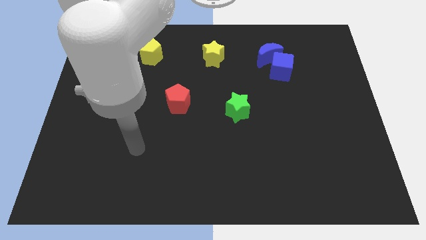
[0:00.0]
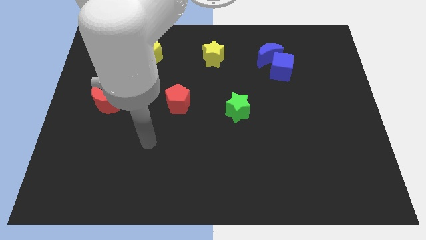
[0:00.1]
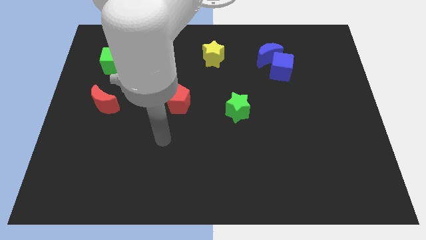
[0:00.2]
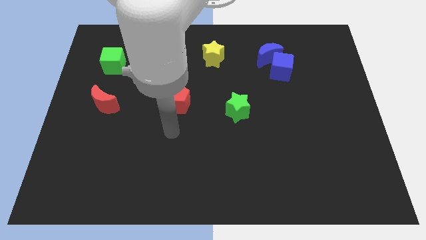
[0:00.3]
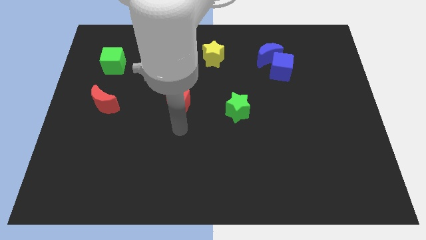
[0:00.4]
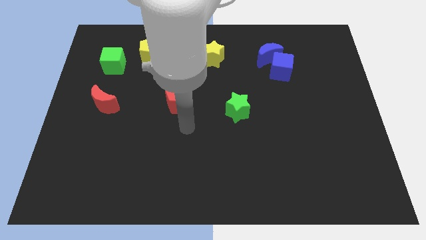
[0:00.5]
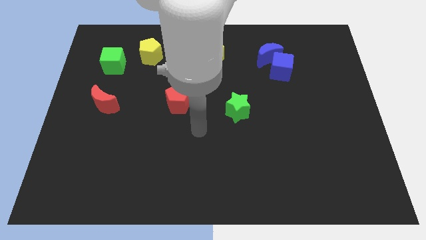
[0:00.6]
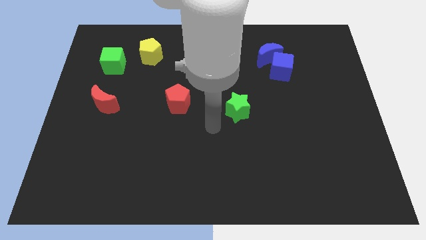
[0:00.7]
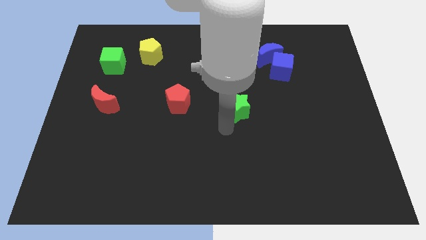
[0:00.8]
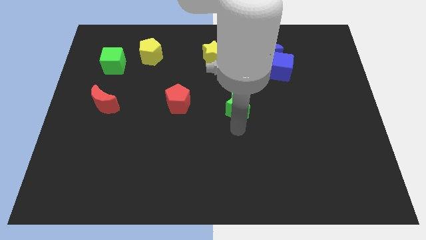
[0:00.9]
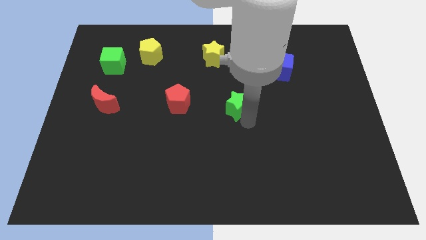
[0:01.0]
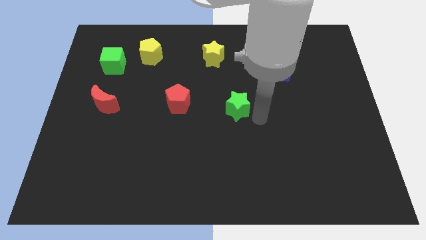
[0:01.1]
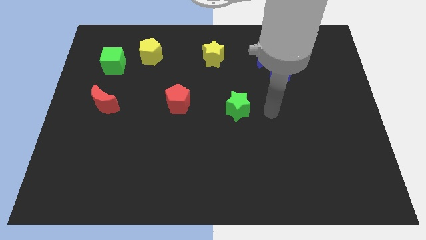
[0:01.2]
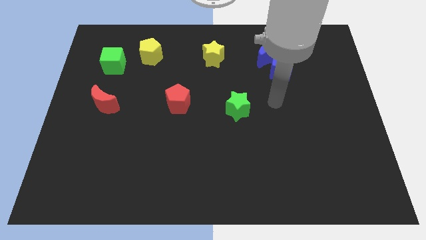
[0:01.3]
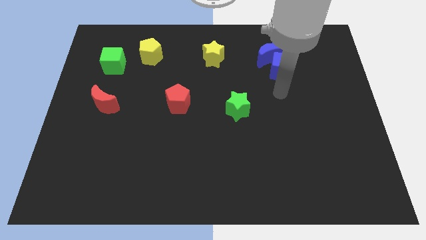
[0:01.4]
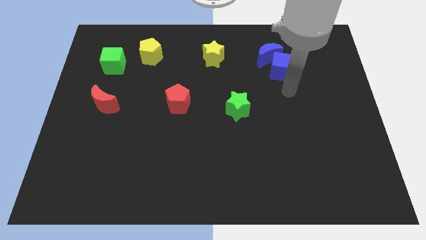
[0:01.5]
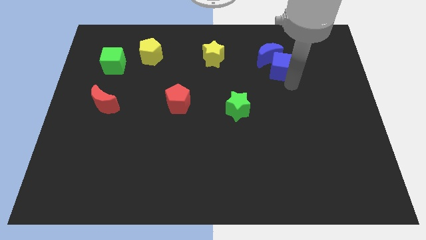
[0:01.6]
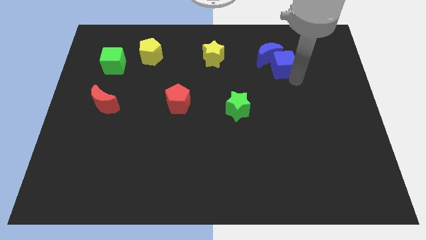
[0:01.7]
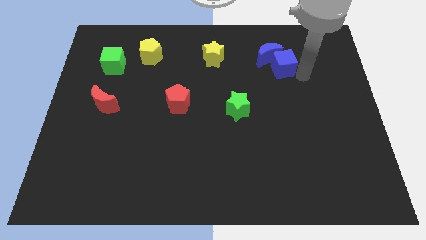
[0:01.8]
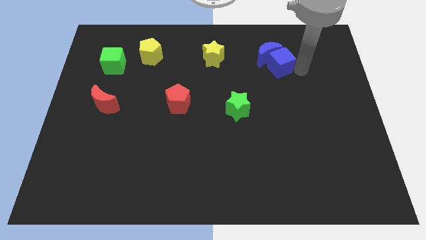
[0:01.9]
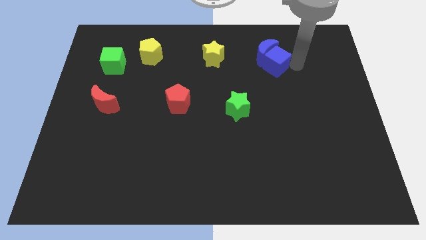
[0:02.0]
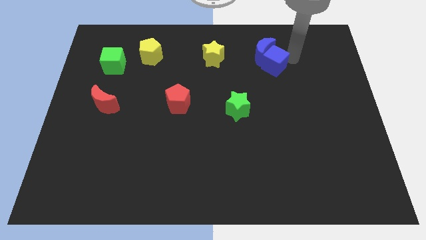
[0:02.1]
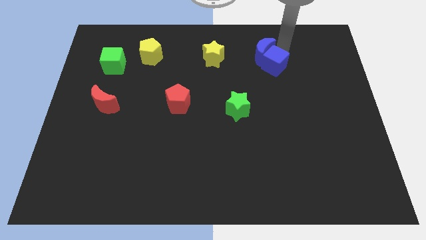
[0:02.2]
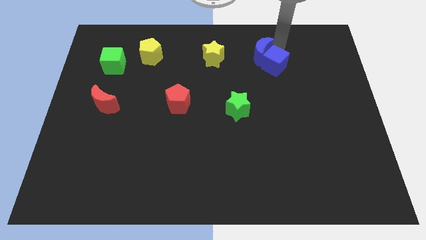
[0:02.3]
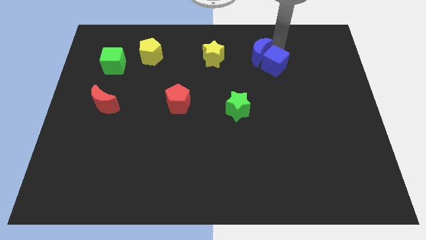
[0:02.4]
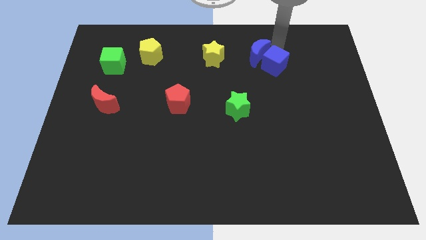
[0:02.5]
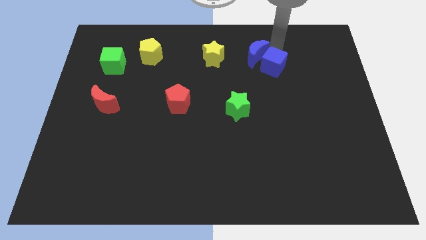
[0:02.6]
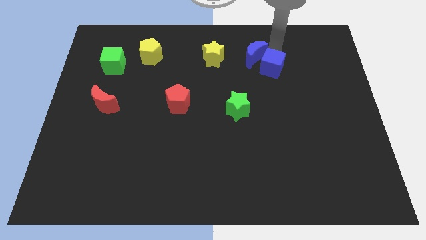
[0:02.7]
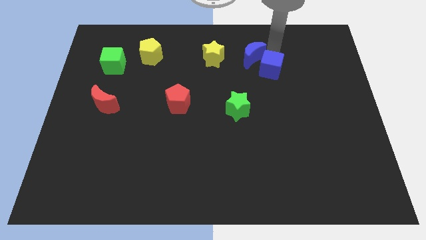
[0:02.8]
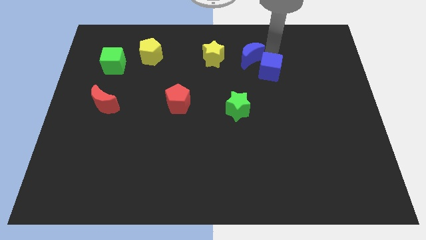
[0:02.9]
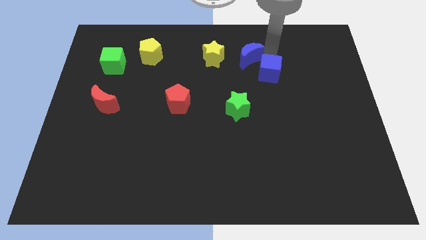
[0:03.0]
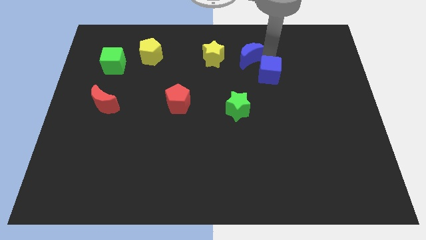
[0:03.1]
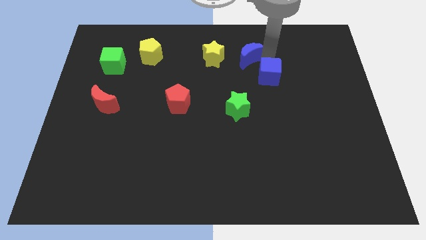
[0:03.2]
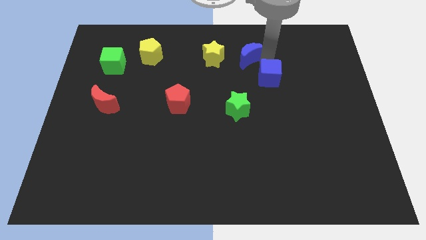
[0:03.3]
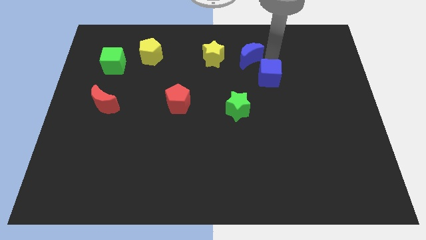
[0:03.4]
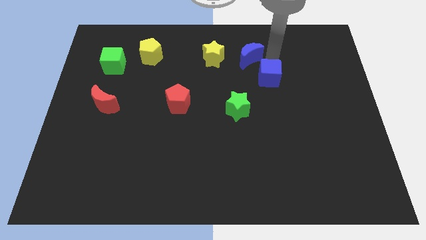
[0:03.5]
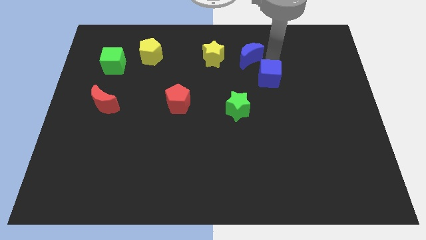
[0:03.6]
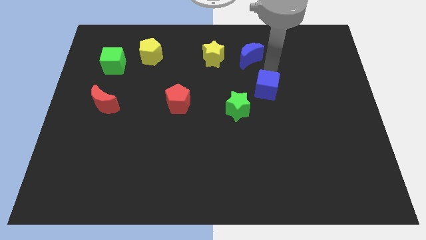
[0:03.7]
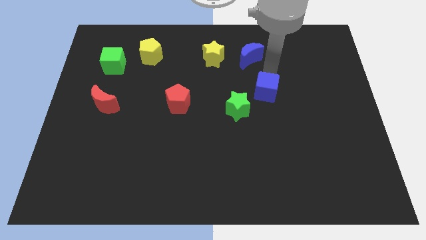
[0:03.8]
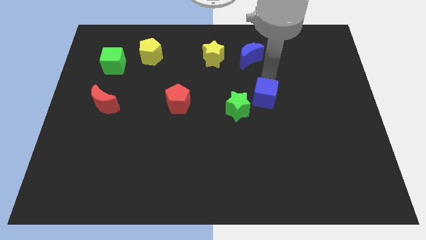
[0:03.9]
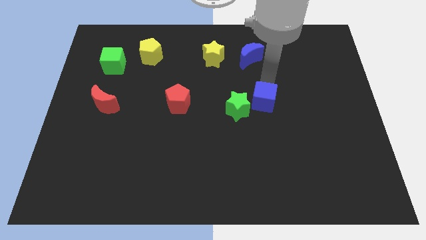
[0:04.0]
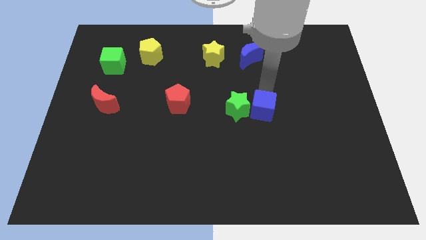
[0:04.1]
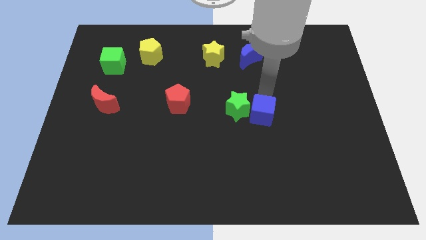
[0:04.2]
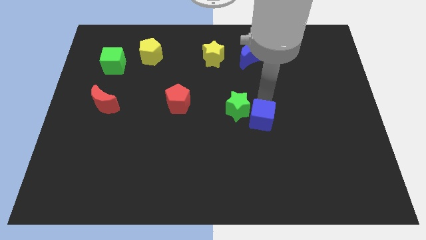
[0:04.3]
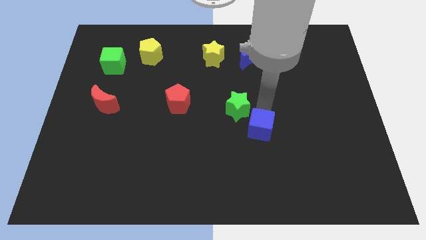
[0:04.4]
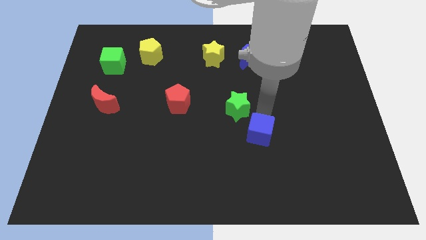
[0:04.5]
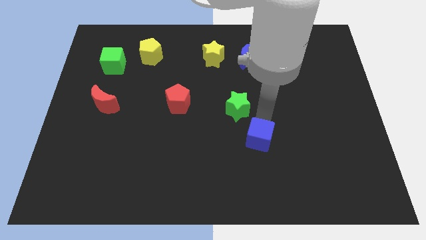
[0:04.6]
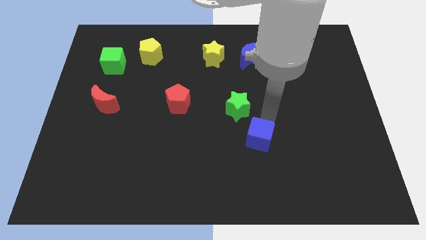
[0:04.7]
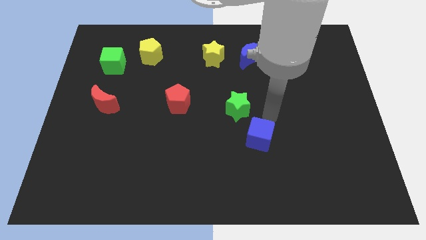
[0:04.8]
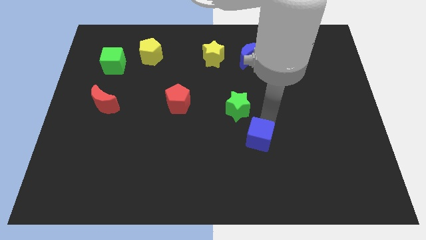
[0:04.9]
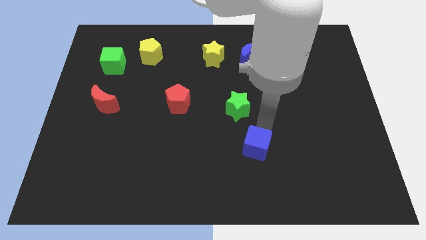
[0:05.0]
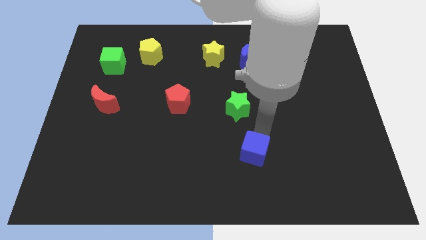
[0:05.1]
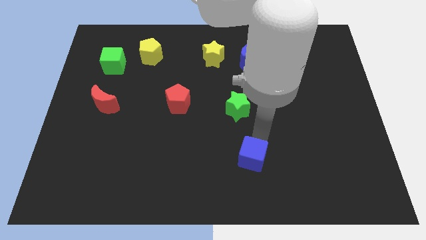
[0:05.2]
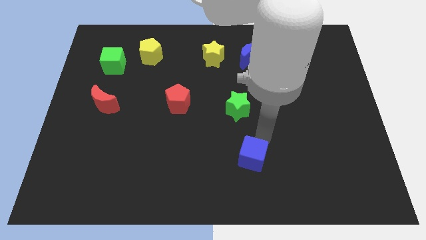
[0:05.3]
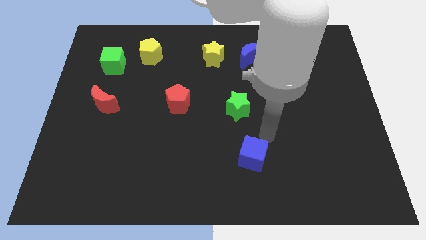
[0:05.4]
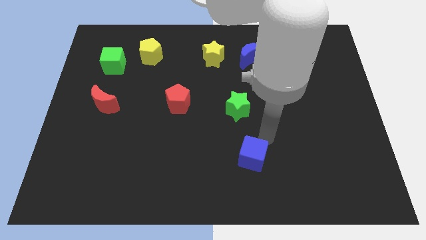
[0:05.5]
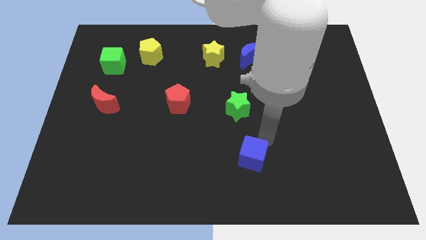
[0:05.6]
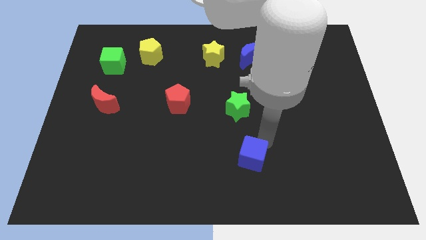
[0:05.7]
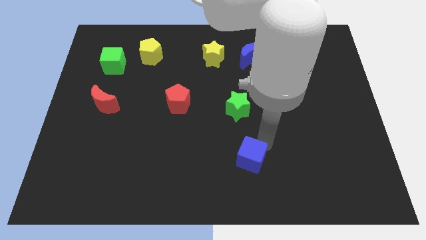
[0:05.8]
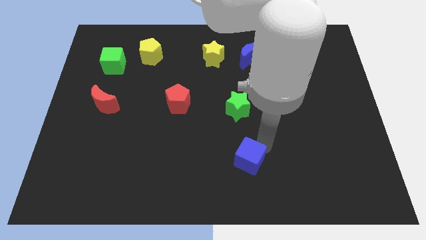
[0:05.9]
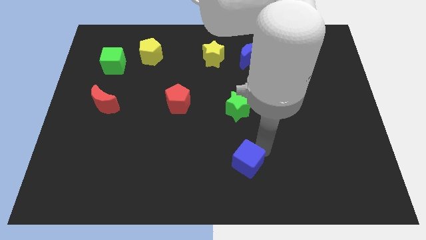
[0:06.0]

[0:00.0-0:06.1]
put the blue cube to the bottom
